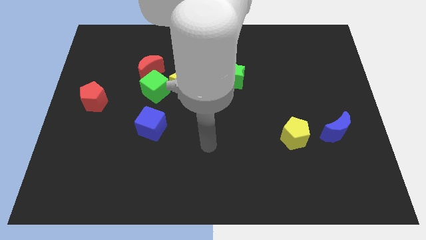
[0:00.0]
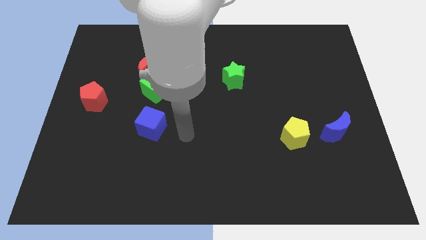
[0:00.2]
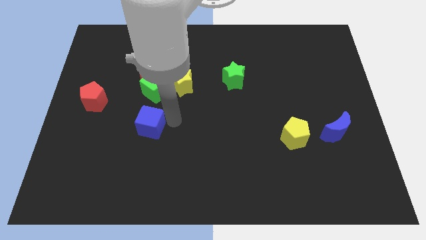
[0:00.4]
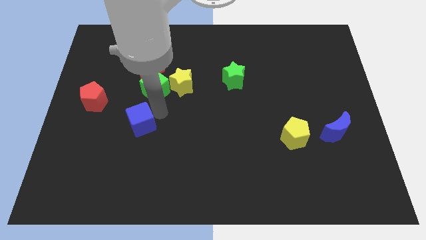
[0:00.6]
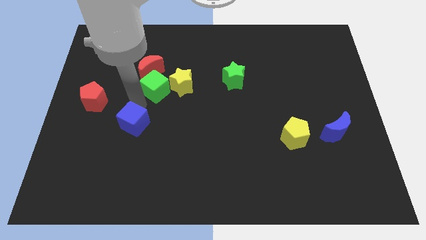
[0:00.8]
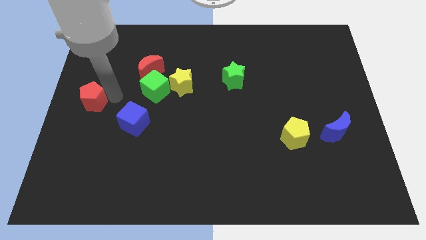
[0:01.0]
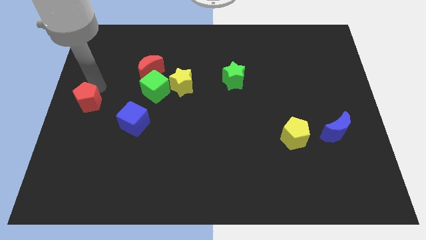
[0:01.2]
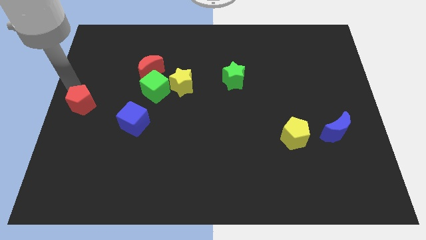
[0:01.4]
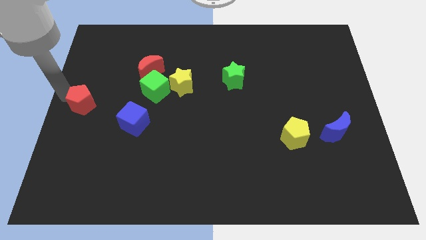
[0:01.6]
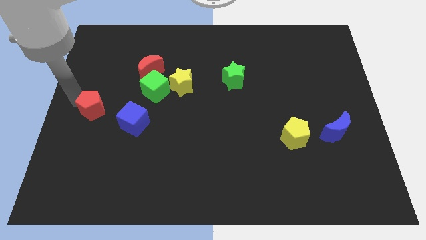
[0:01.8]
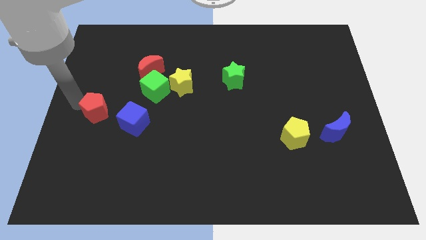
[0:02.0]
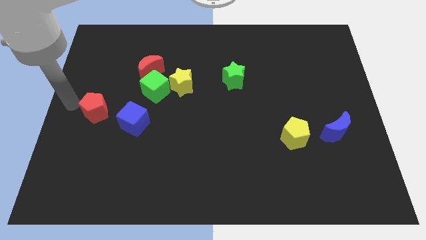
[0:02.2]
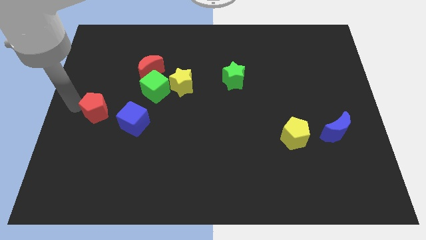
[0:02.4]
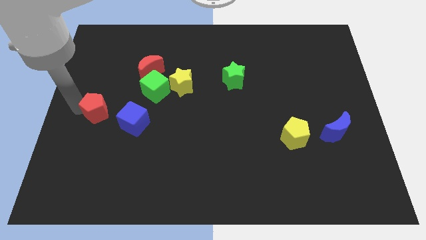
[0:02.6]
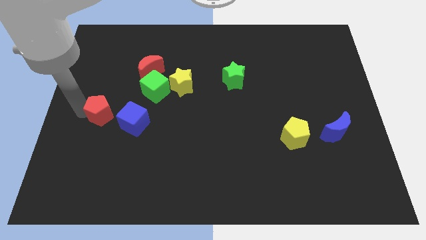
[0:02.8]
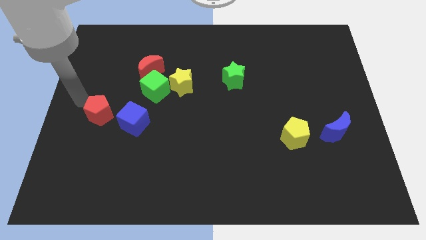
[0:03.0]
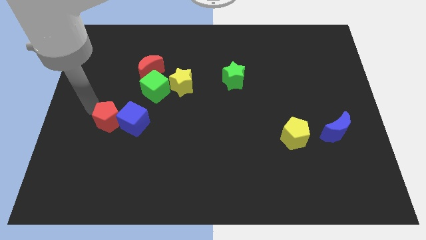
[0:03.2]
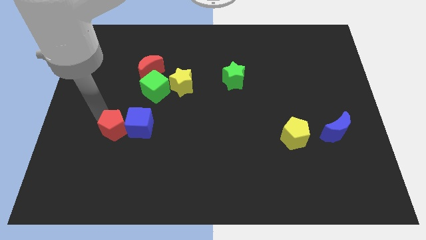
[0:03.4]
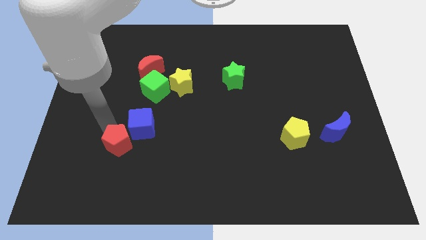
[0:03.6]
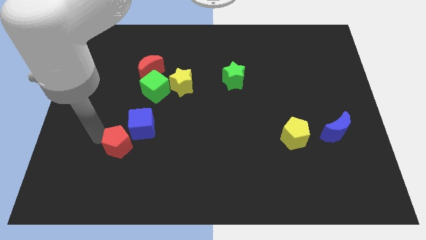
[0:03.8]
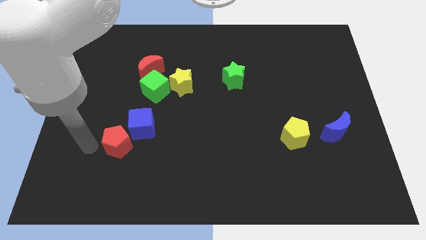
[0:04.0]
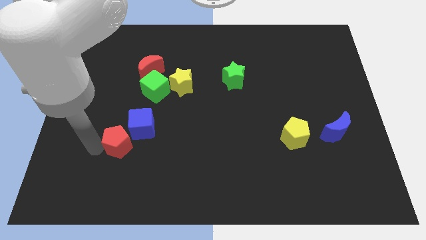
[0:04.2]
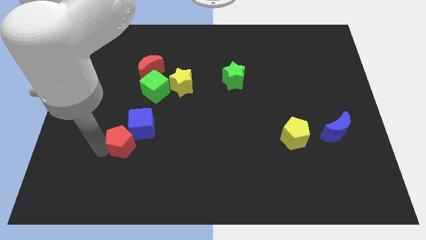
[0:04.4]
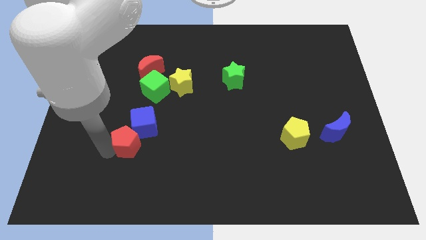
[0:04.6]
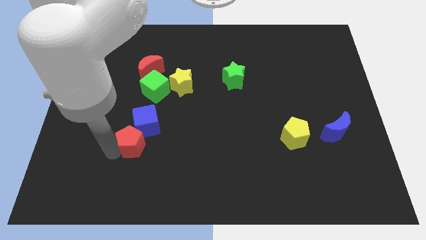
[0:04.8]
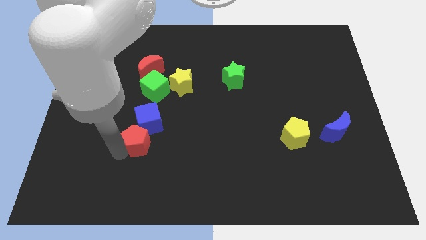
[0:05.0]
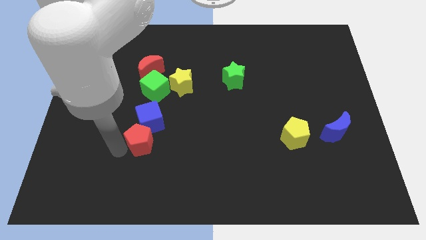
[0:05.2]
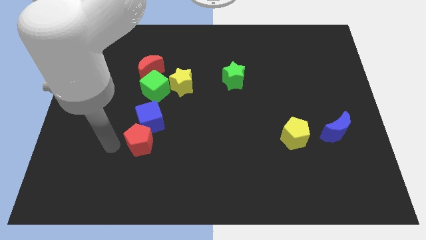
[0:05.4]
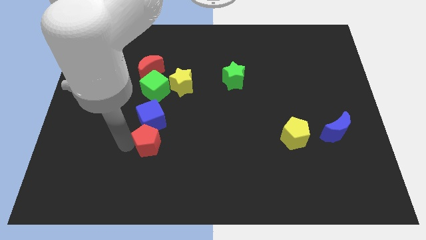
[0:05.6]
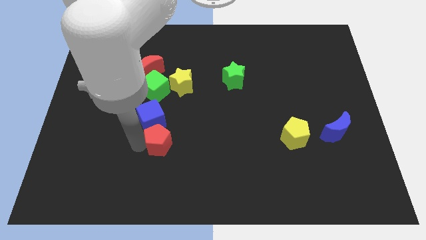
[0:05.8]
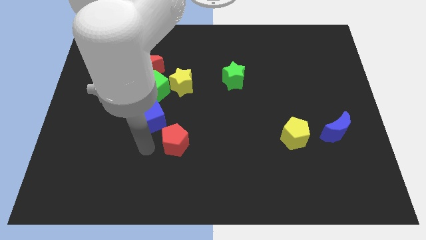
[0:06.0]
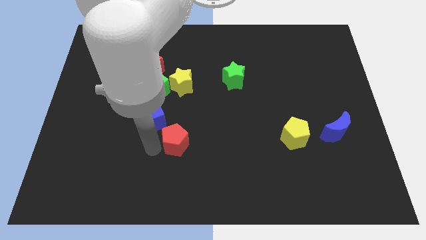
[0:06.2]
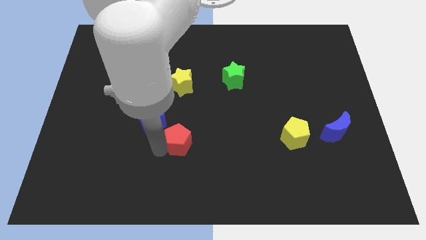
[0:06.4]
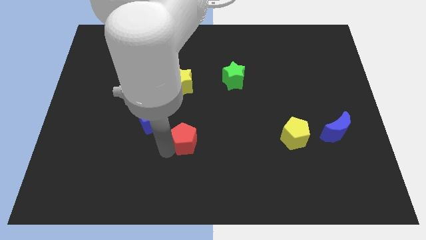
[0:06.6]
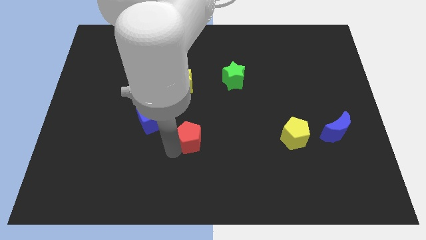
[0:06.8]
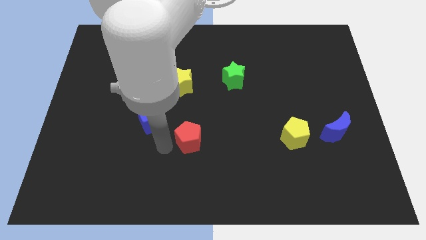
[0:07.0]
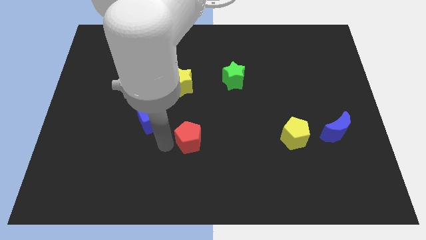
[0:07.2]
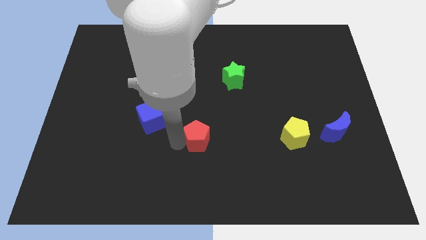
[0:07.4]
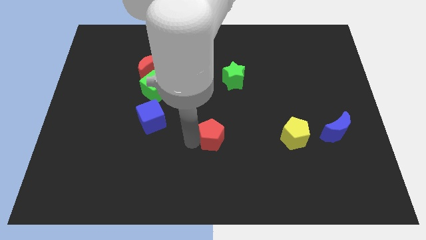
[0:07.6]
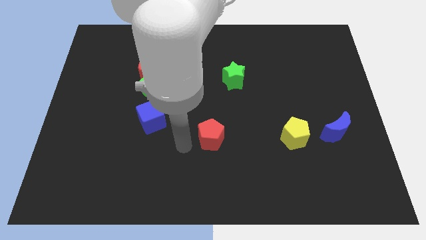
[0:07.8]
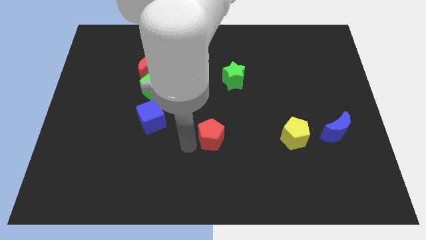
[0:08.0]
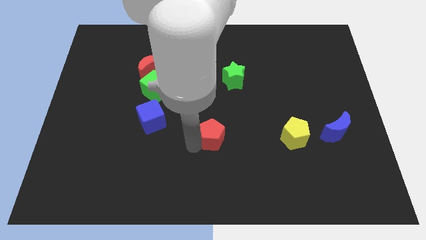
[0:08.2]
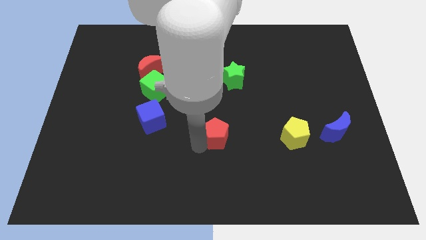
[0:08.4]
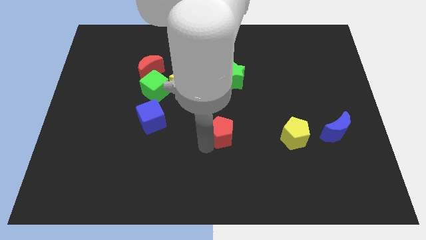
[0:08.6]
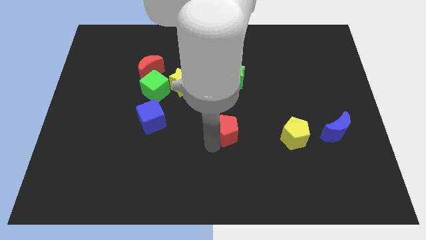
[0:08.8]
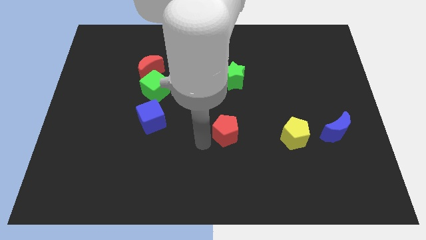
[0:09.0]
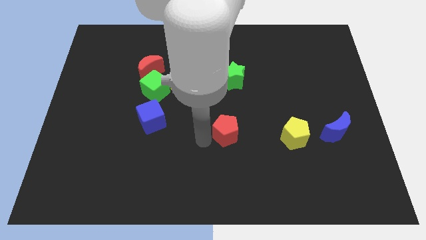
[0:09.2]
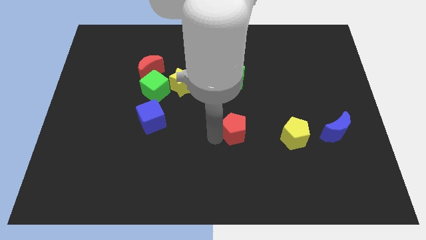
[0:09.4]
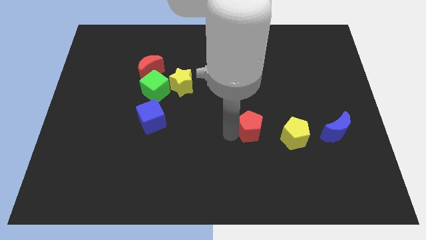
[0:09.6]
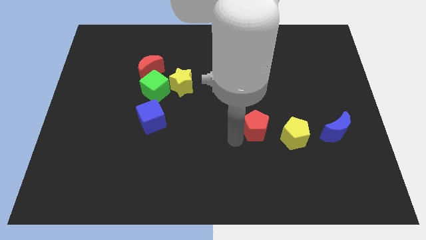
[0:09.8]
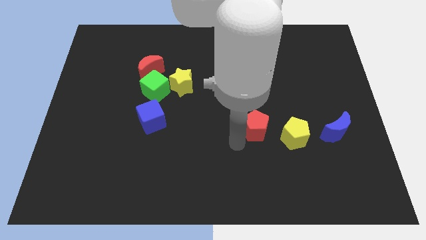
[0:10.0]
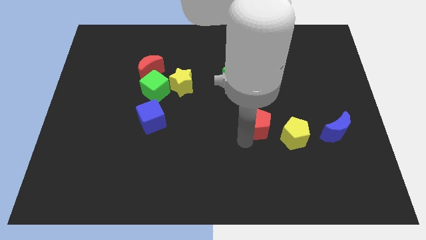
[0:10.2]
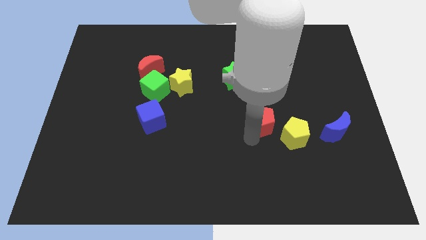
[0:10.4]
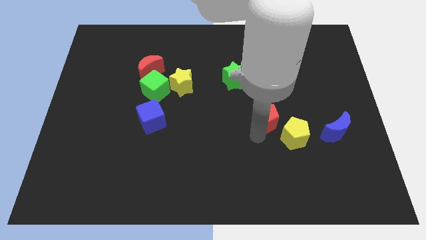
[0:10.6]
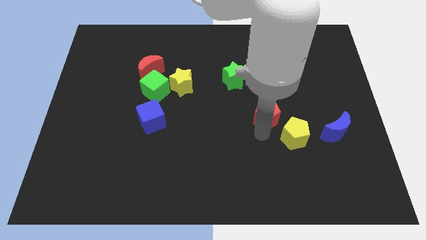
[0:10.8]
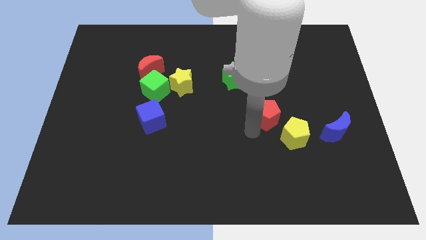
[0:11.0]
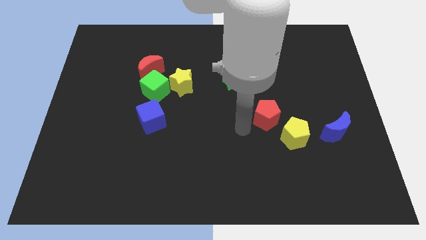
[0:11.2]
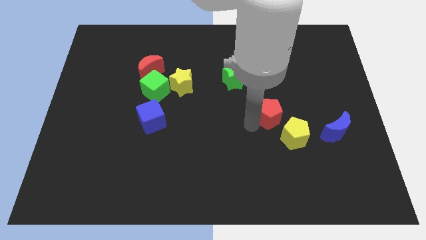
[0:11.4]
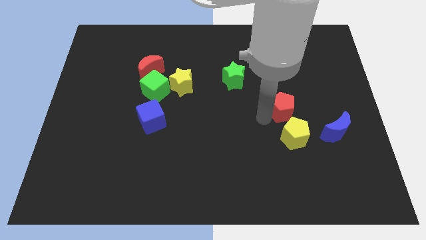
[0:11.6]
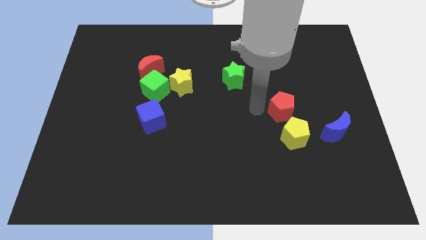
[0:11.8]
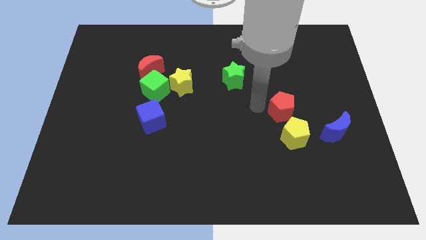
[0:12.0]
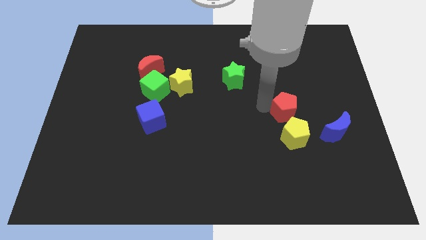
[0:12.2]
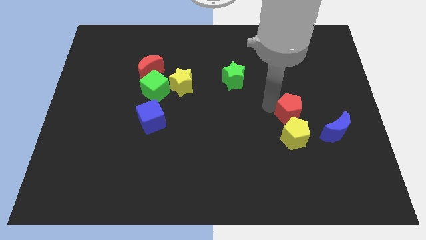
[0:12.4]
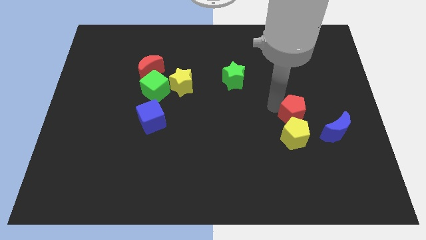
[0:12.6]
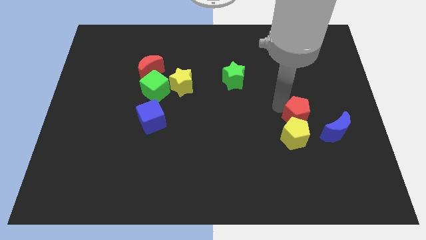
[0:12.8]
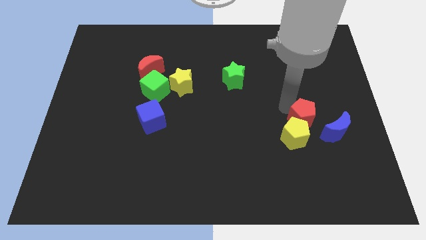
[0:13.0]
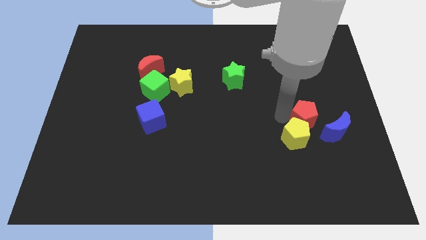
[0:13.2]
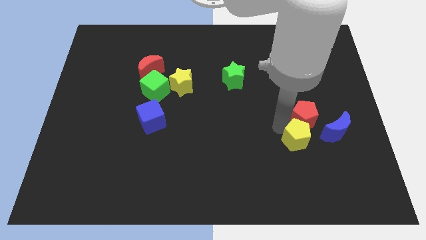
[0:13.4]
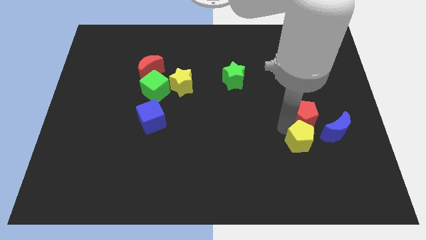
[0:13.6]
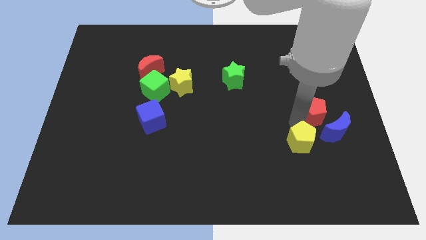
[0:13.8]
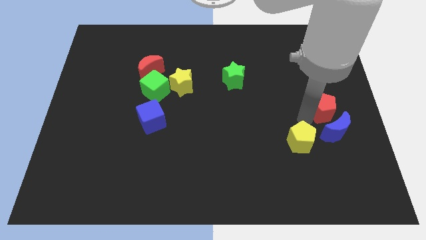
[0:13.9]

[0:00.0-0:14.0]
slide the red pentagon to the right side
